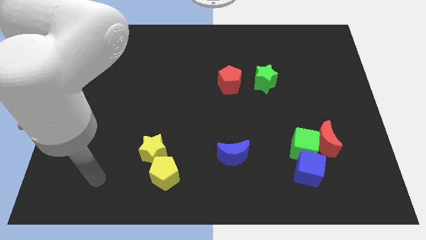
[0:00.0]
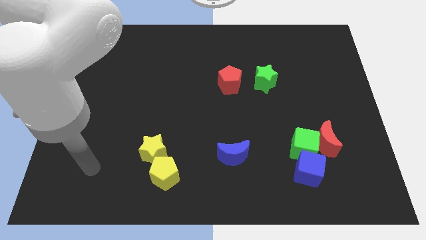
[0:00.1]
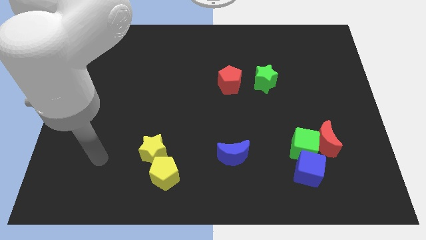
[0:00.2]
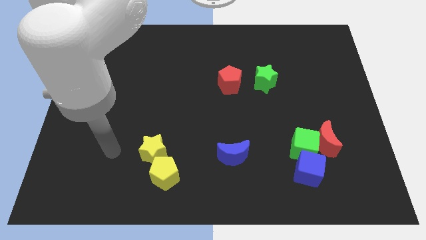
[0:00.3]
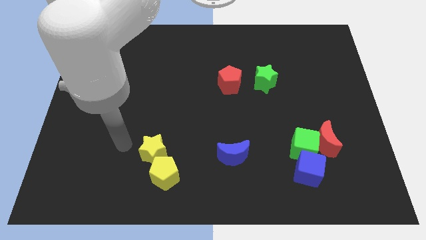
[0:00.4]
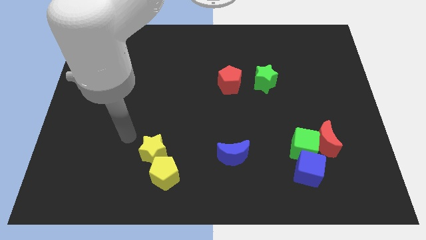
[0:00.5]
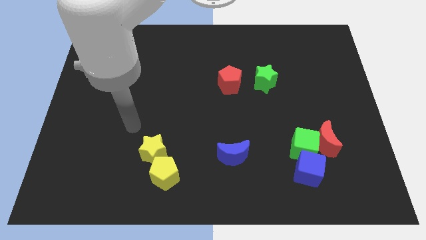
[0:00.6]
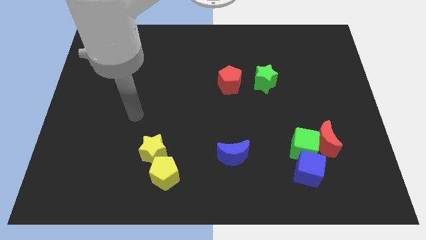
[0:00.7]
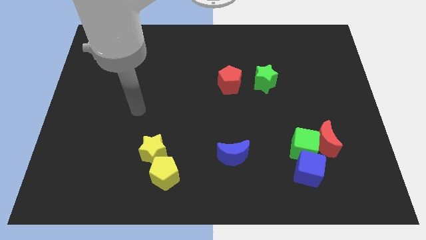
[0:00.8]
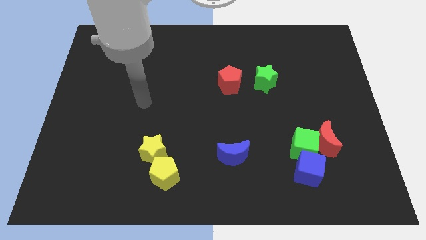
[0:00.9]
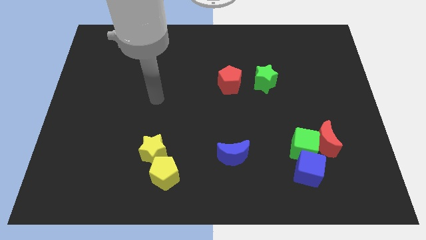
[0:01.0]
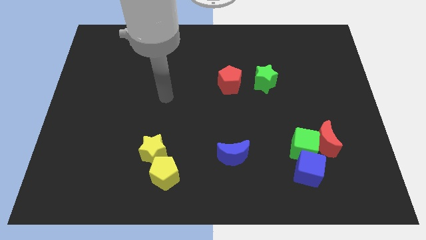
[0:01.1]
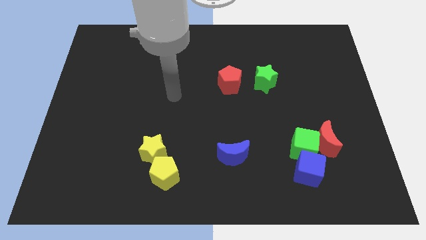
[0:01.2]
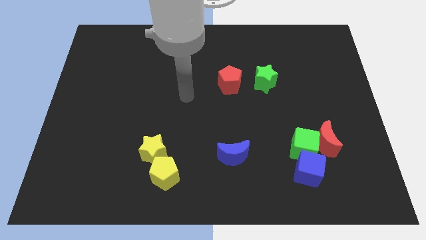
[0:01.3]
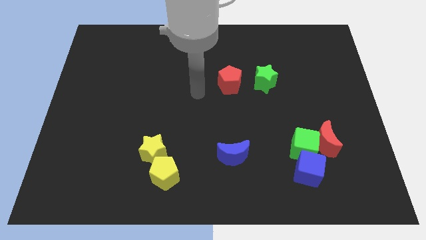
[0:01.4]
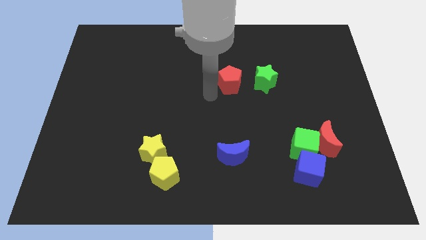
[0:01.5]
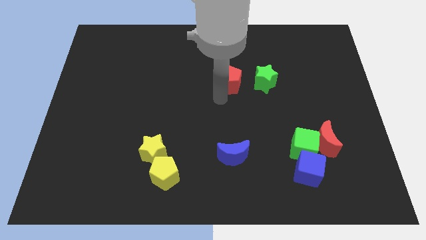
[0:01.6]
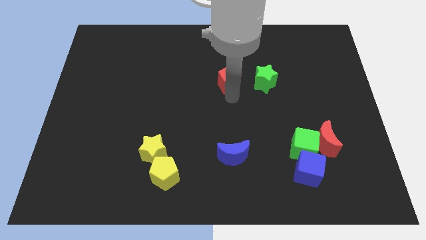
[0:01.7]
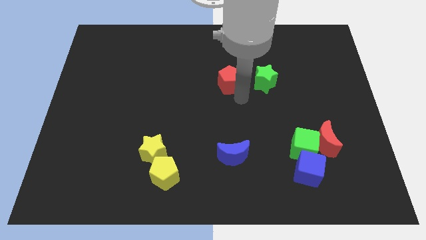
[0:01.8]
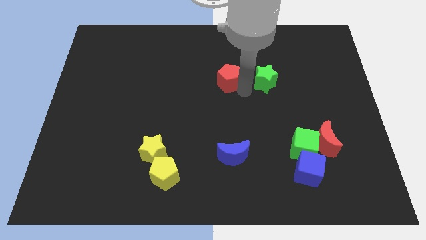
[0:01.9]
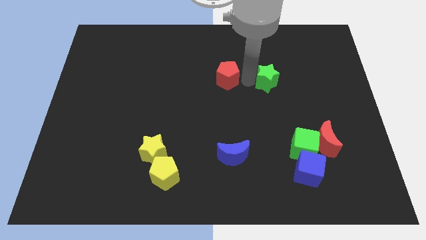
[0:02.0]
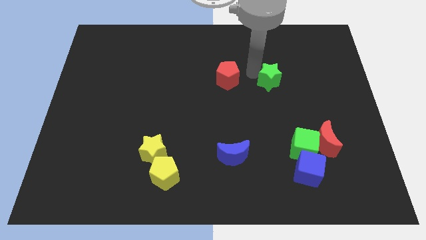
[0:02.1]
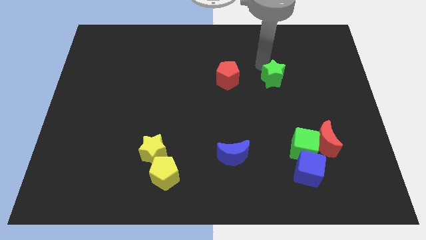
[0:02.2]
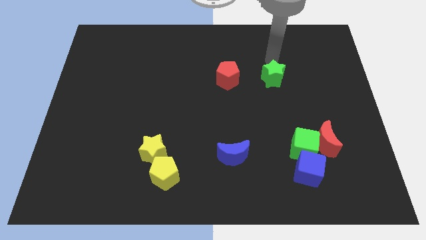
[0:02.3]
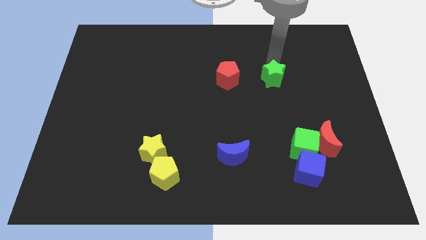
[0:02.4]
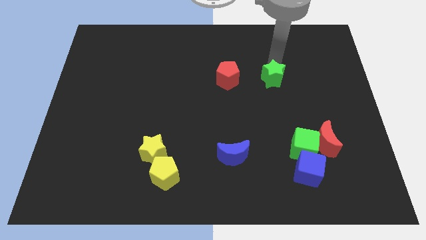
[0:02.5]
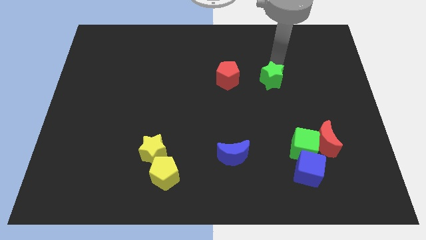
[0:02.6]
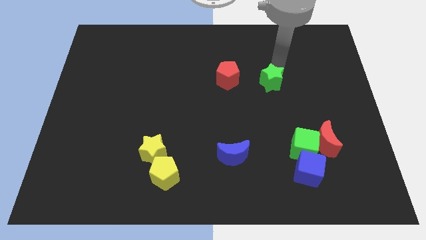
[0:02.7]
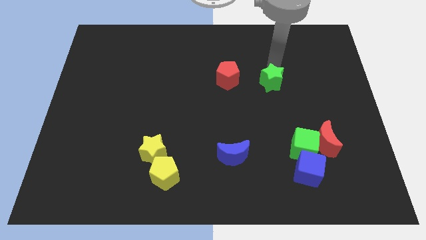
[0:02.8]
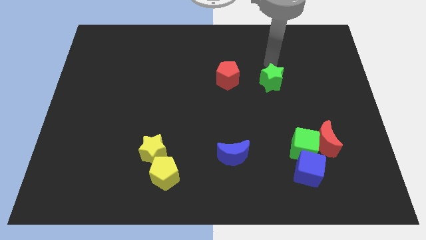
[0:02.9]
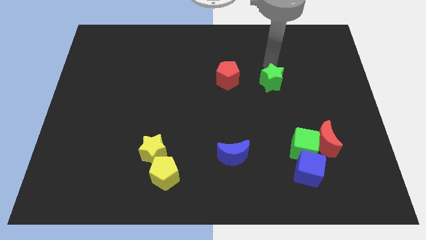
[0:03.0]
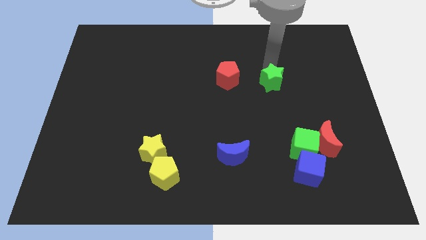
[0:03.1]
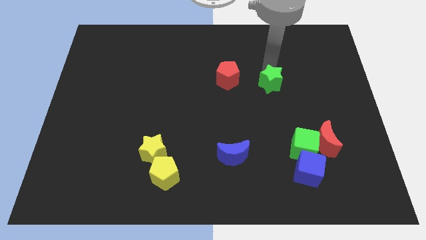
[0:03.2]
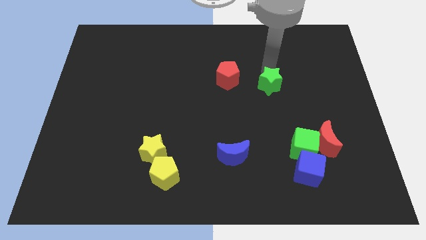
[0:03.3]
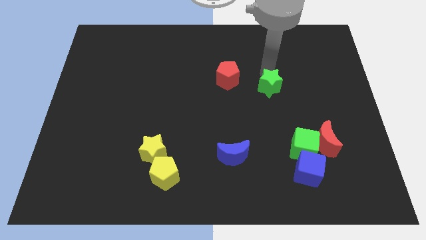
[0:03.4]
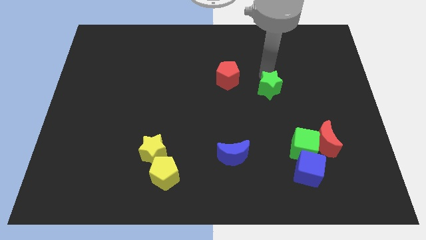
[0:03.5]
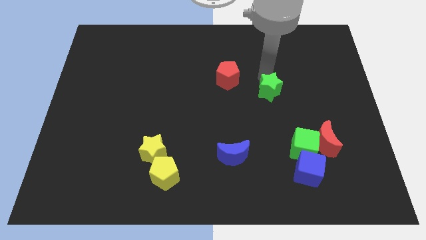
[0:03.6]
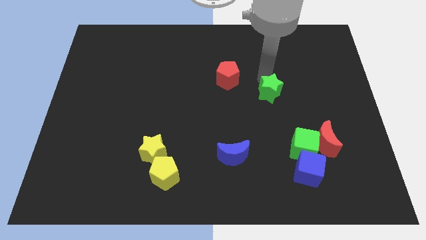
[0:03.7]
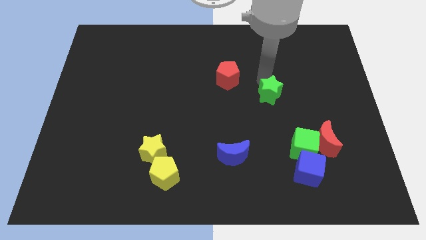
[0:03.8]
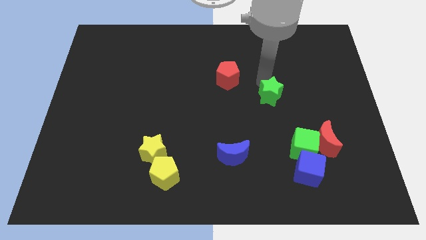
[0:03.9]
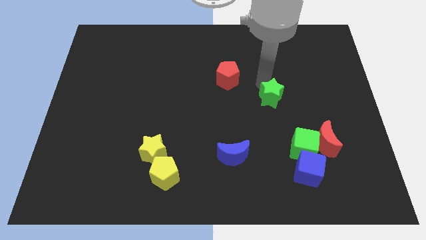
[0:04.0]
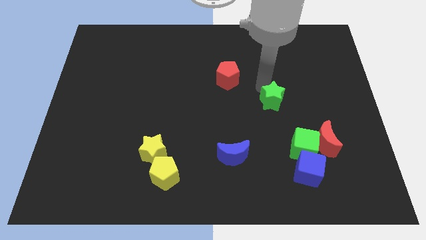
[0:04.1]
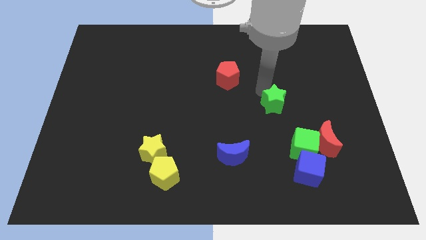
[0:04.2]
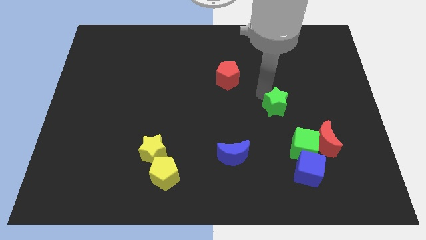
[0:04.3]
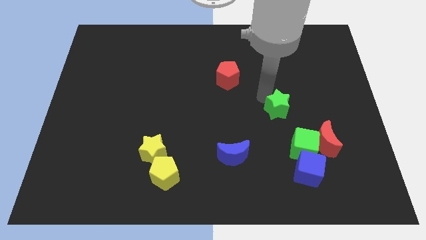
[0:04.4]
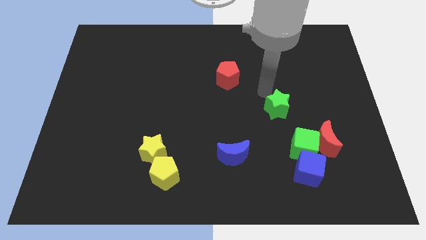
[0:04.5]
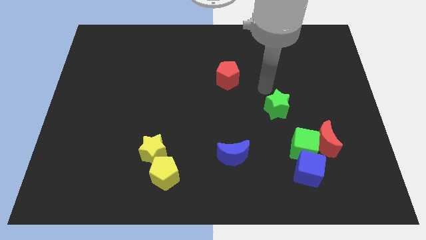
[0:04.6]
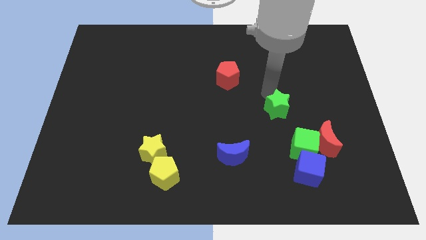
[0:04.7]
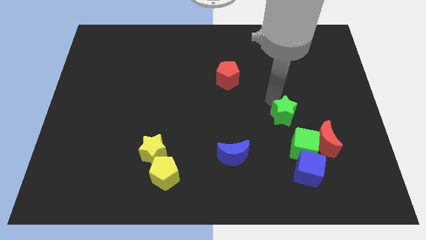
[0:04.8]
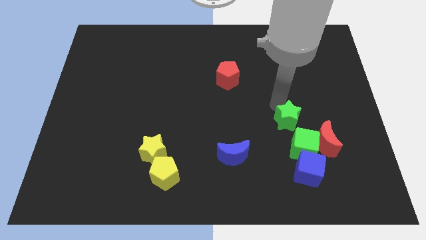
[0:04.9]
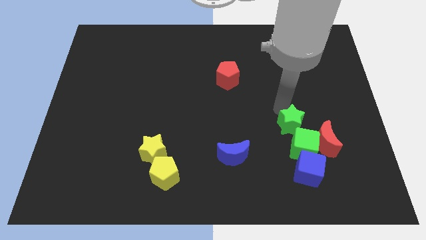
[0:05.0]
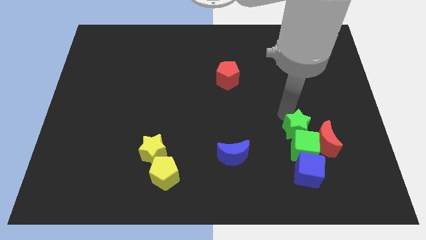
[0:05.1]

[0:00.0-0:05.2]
slide the green star close to the green cube

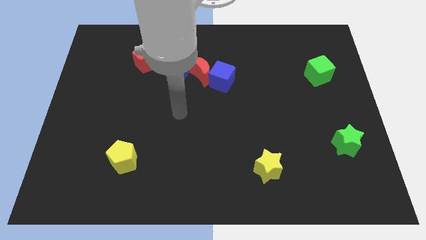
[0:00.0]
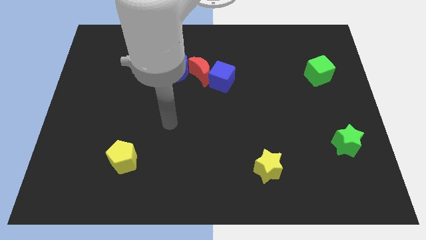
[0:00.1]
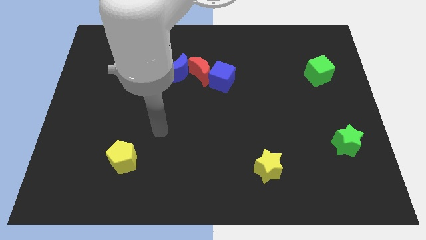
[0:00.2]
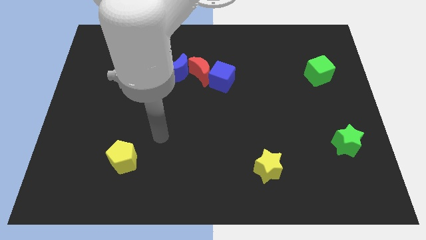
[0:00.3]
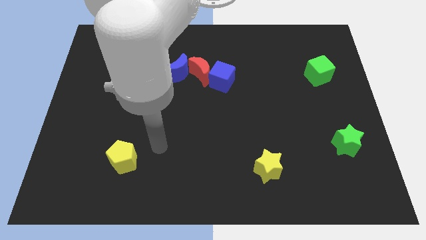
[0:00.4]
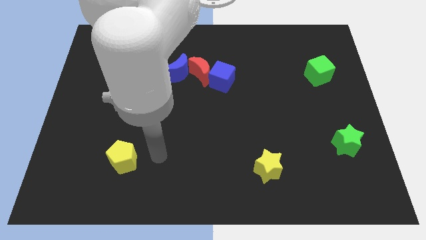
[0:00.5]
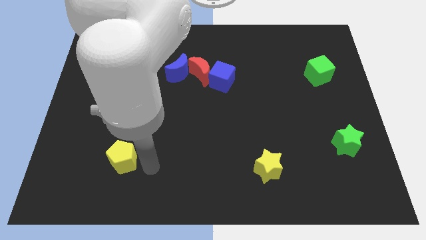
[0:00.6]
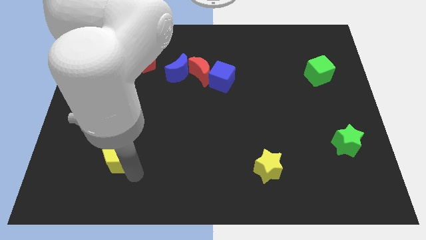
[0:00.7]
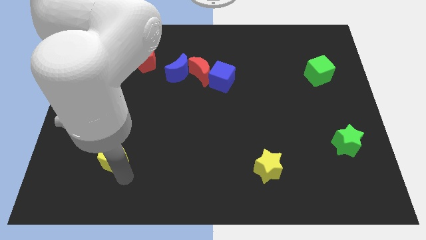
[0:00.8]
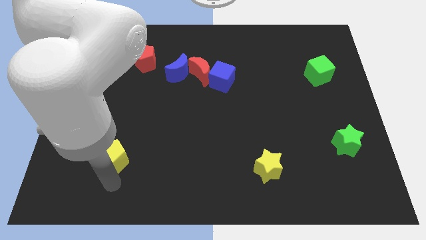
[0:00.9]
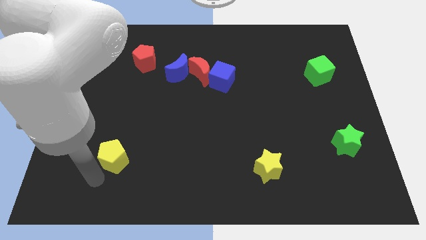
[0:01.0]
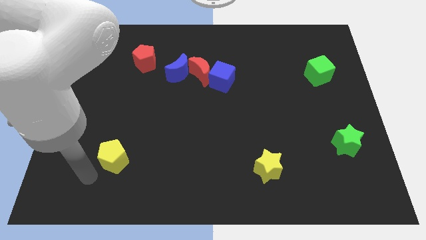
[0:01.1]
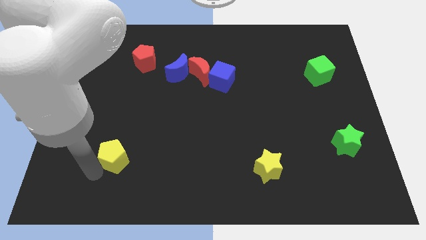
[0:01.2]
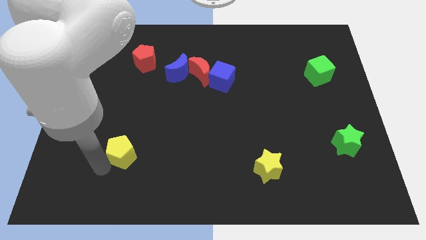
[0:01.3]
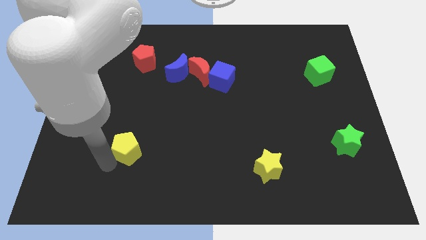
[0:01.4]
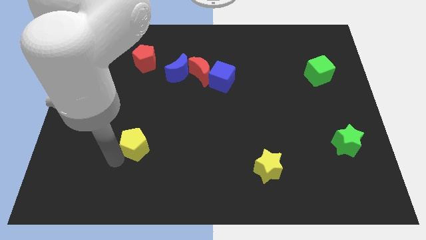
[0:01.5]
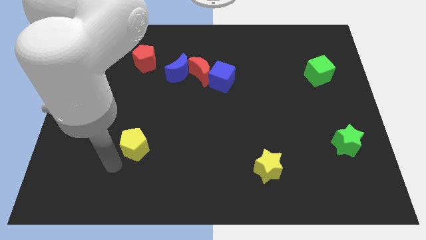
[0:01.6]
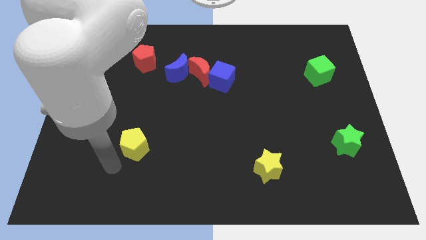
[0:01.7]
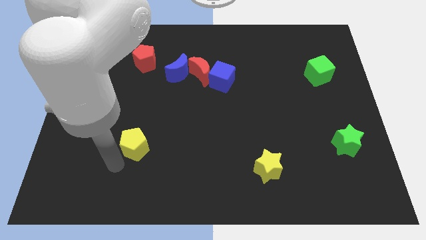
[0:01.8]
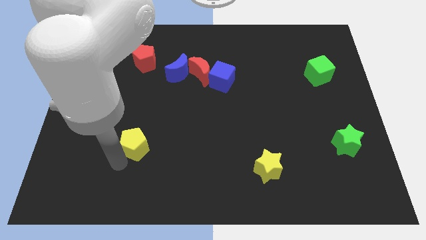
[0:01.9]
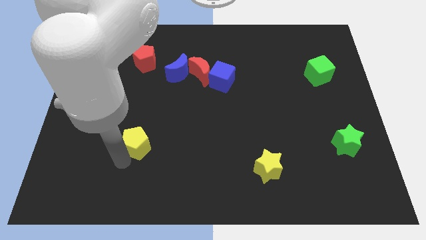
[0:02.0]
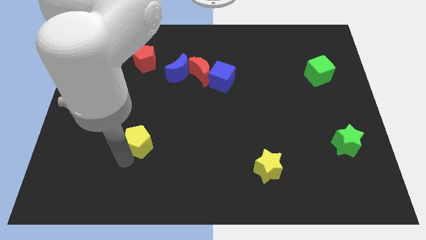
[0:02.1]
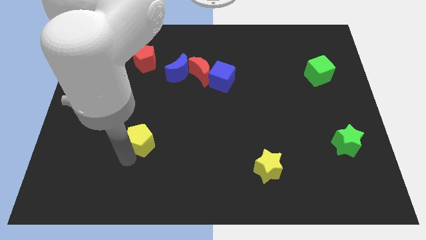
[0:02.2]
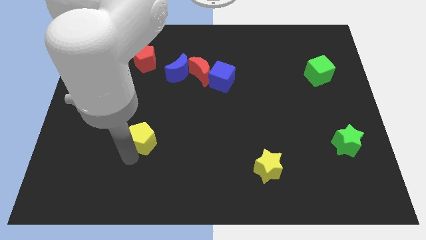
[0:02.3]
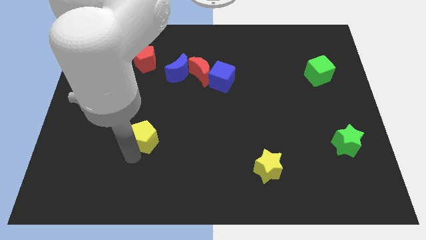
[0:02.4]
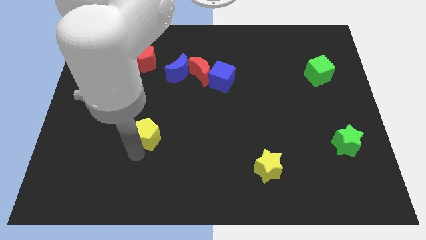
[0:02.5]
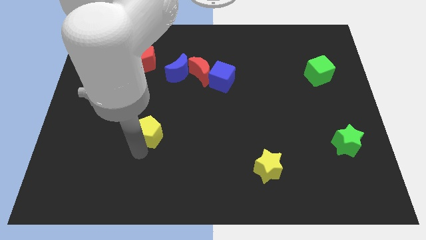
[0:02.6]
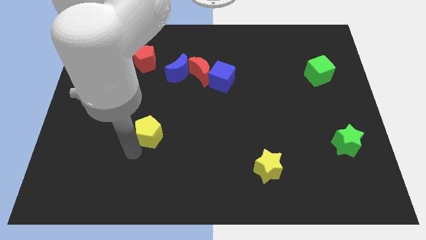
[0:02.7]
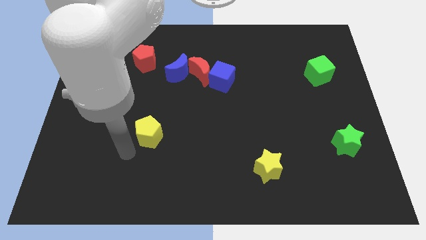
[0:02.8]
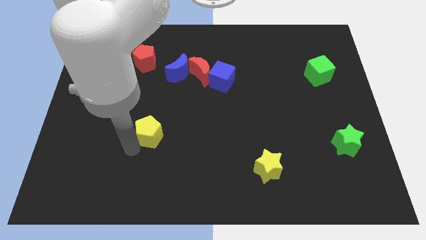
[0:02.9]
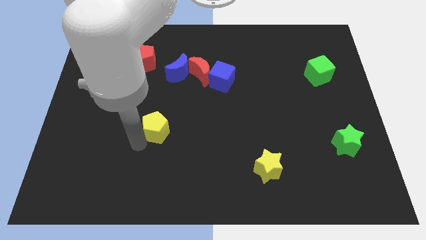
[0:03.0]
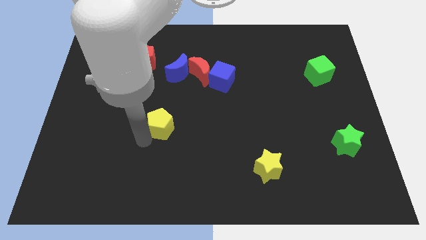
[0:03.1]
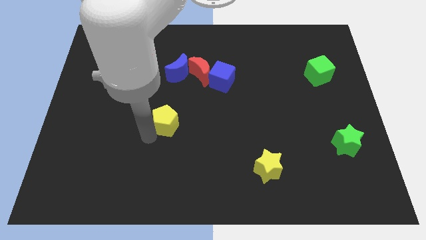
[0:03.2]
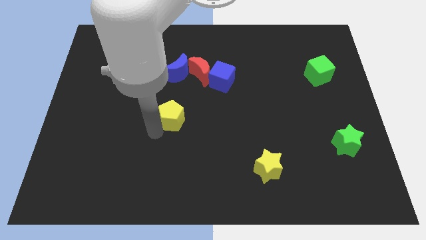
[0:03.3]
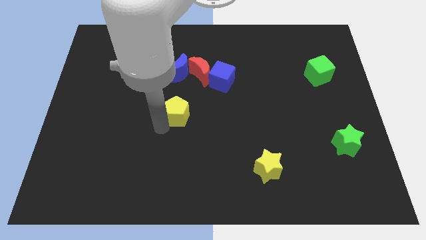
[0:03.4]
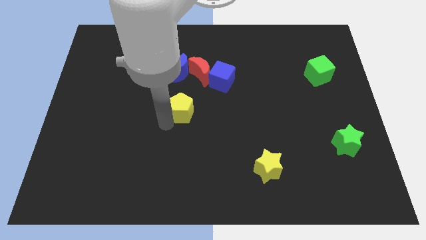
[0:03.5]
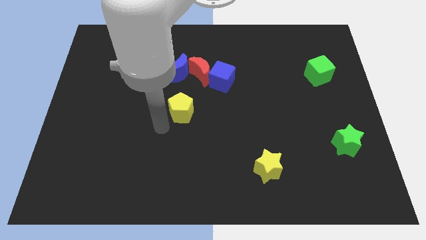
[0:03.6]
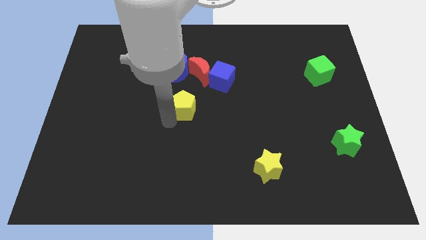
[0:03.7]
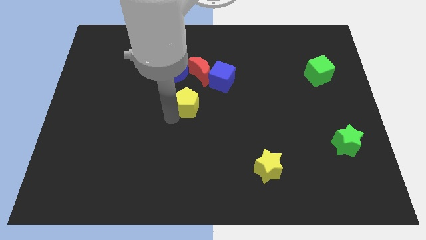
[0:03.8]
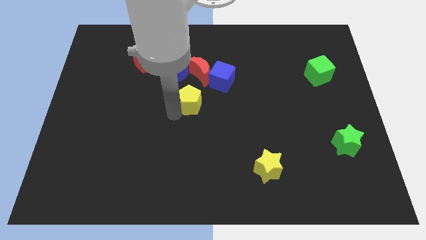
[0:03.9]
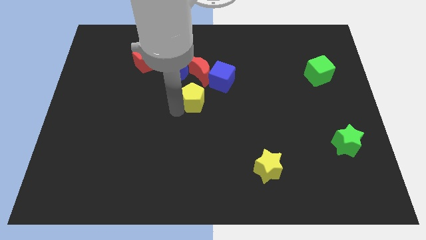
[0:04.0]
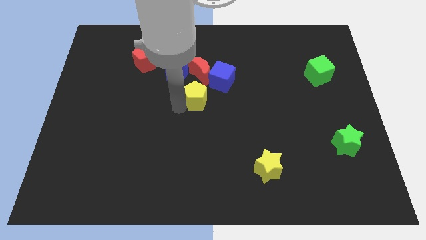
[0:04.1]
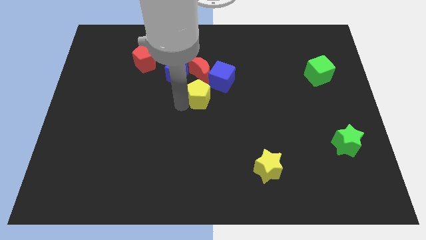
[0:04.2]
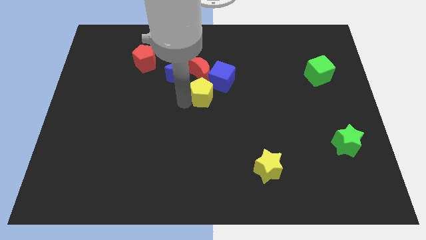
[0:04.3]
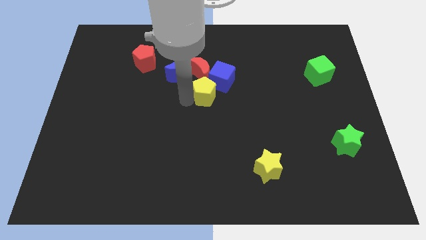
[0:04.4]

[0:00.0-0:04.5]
move the yellow pentagon next to the blue cube
